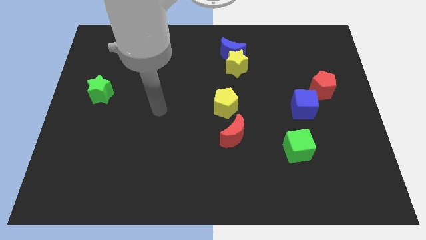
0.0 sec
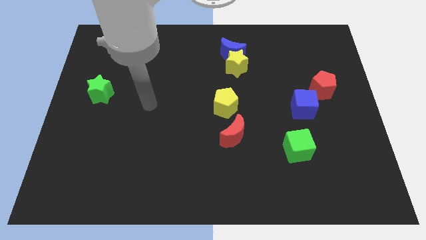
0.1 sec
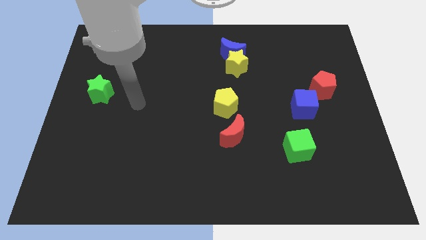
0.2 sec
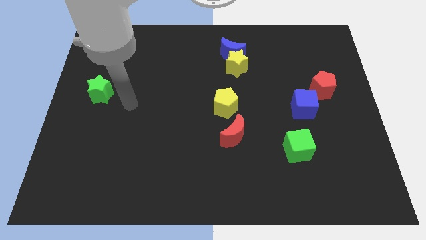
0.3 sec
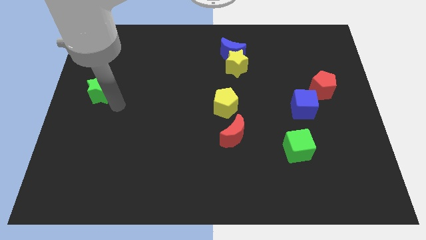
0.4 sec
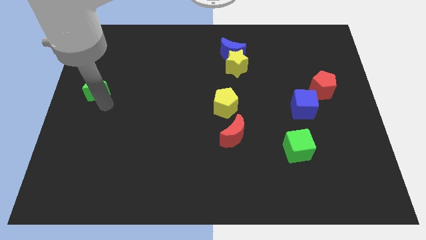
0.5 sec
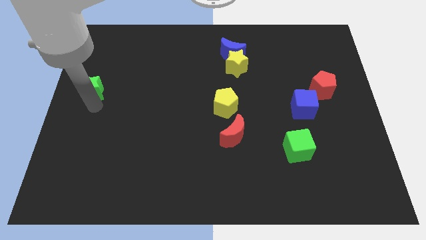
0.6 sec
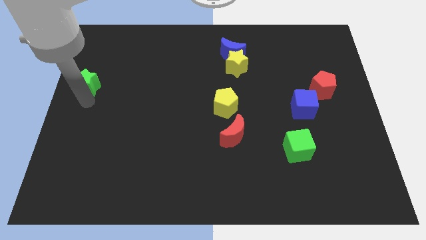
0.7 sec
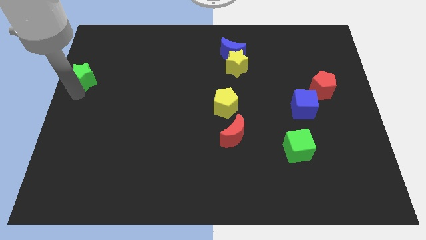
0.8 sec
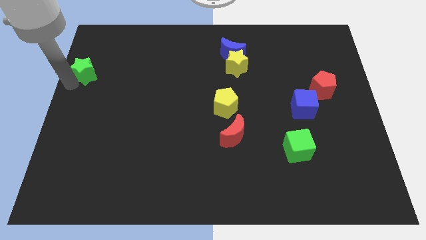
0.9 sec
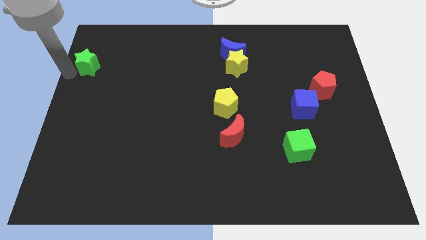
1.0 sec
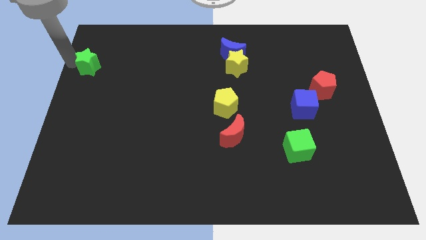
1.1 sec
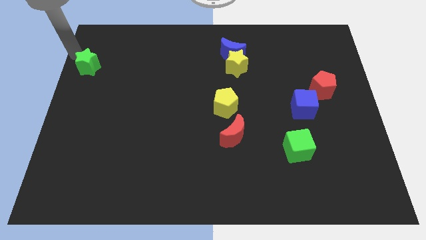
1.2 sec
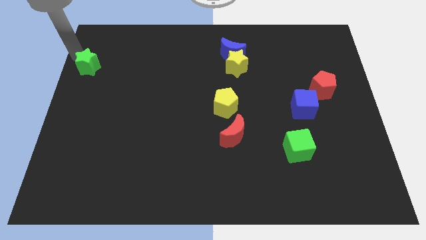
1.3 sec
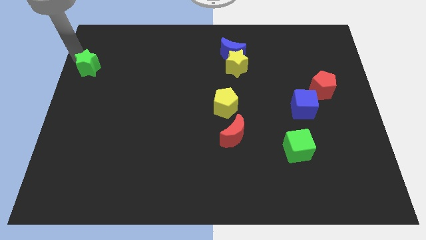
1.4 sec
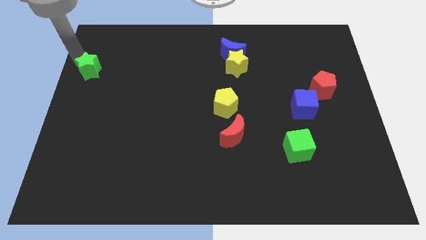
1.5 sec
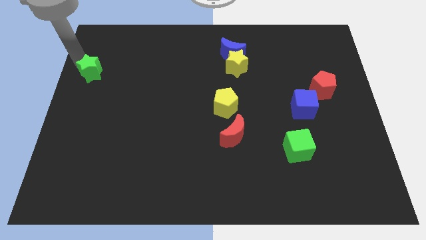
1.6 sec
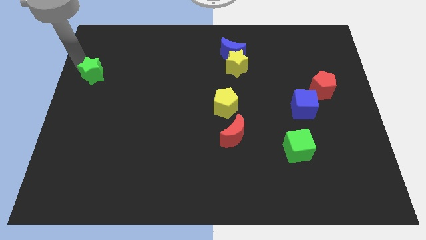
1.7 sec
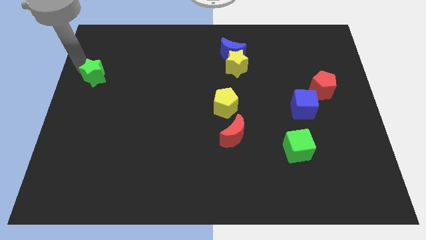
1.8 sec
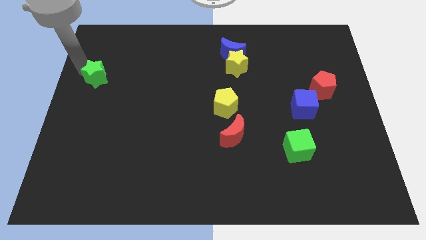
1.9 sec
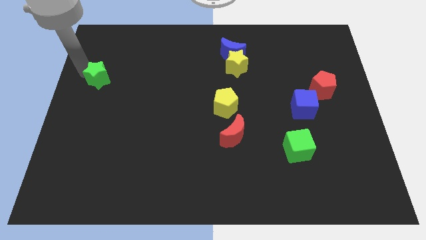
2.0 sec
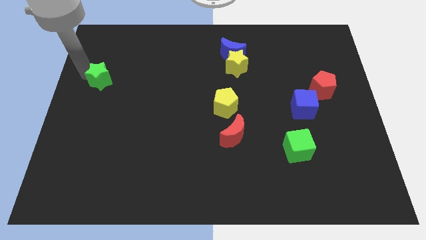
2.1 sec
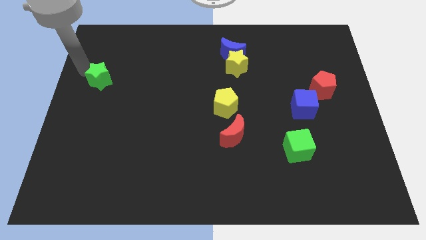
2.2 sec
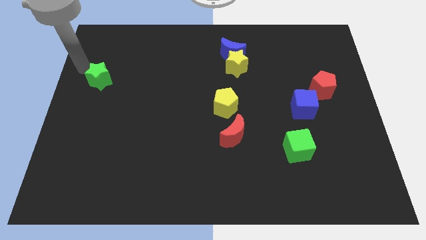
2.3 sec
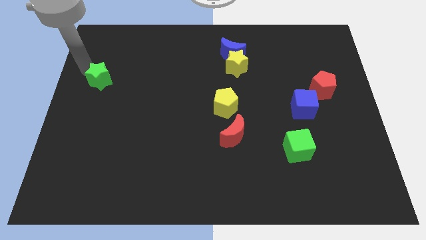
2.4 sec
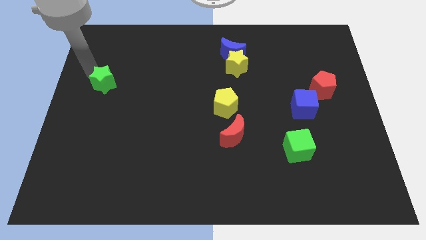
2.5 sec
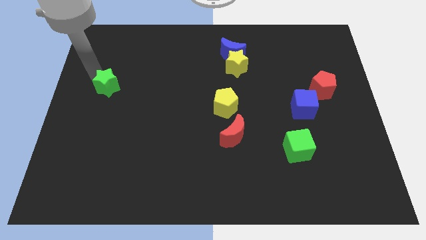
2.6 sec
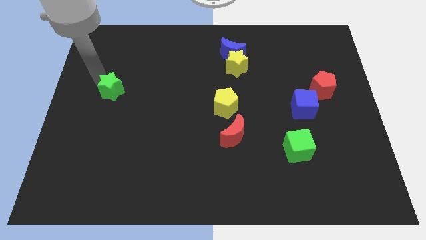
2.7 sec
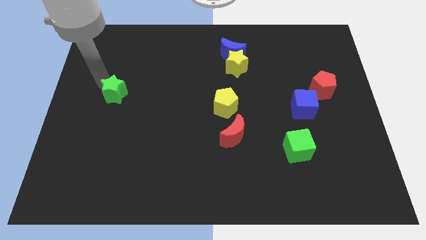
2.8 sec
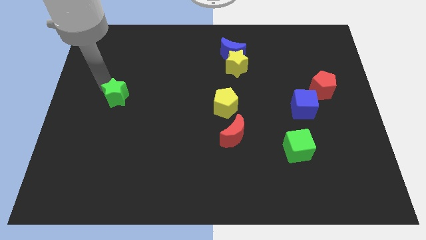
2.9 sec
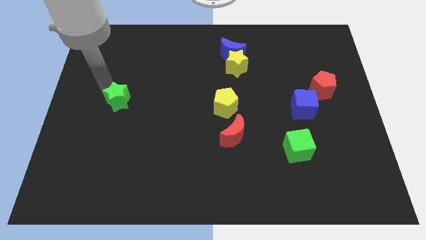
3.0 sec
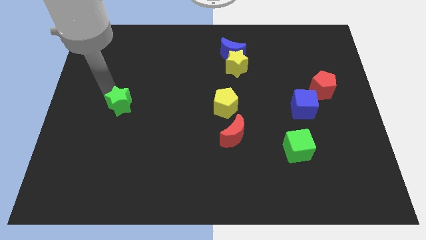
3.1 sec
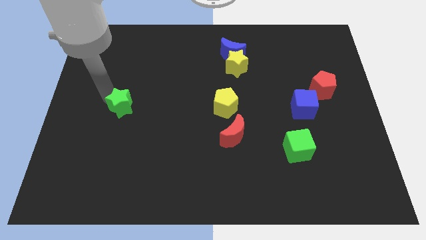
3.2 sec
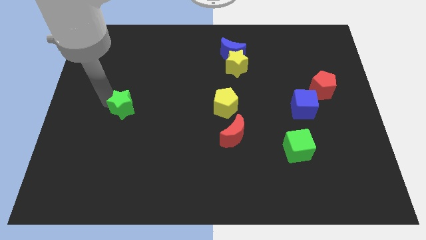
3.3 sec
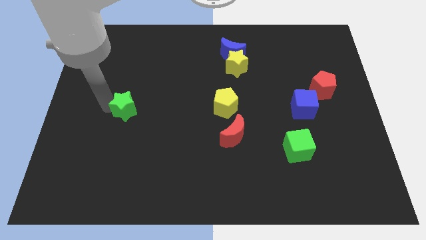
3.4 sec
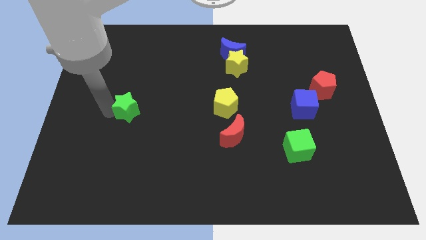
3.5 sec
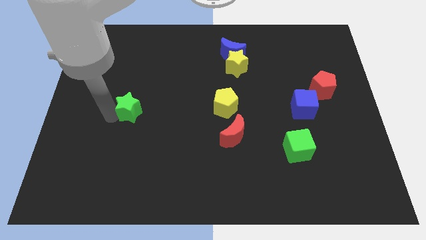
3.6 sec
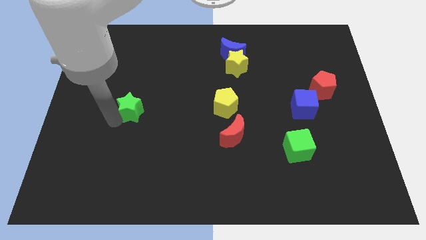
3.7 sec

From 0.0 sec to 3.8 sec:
push the green star a little bit right

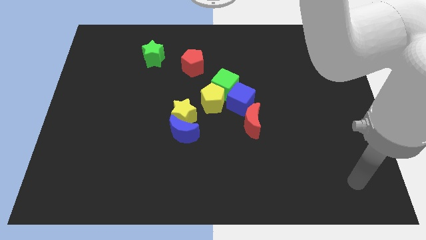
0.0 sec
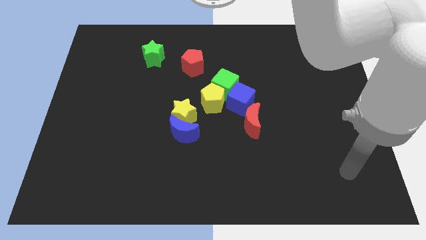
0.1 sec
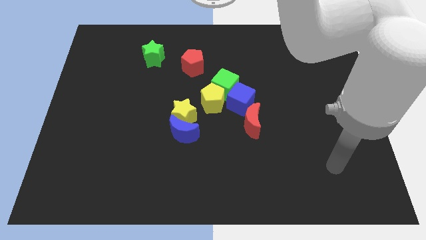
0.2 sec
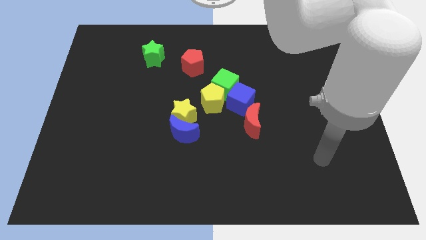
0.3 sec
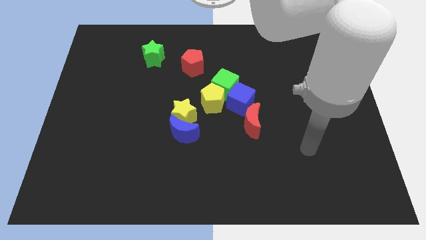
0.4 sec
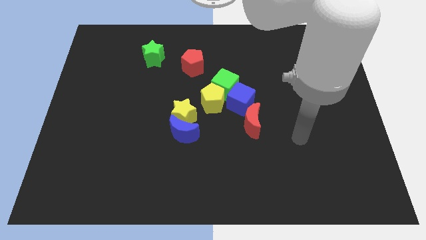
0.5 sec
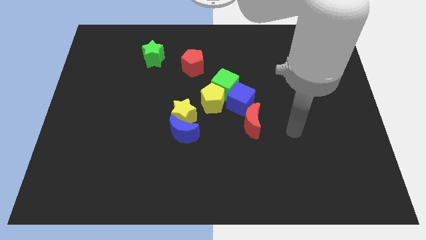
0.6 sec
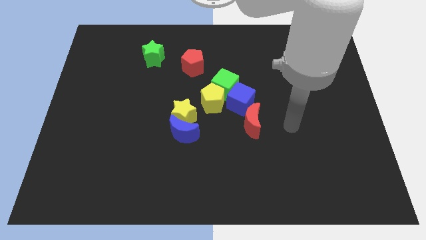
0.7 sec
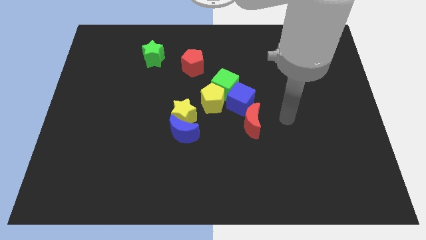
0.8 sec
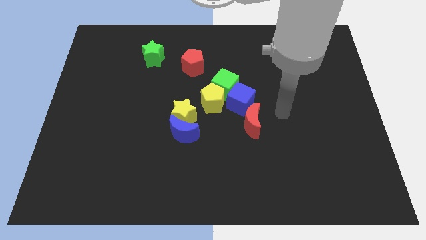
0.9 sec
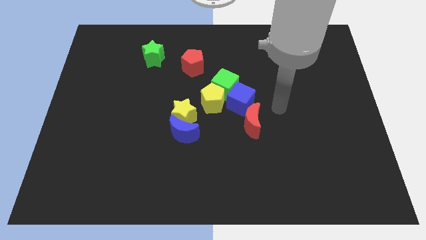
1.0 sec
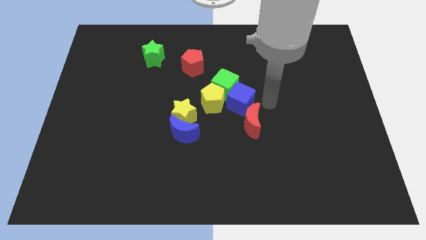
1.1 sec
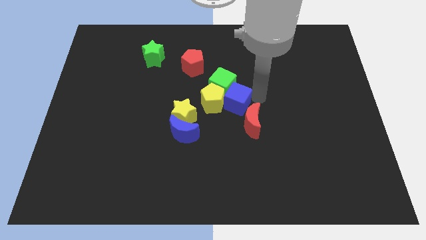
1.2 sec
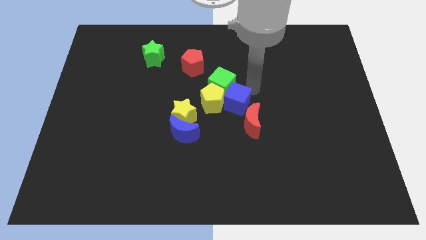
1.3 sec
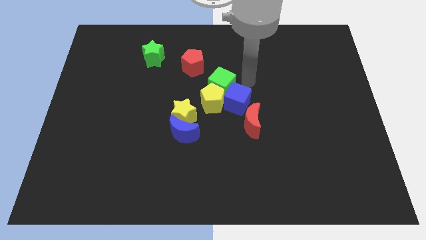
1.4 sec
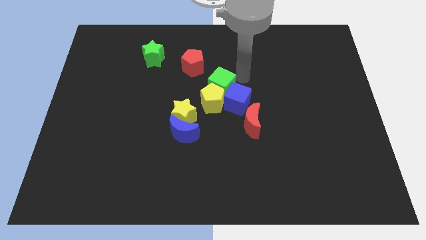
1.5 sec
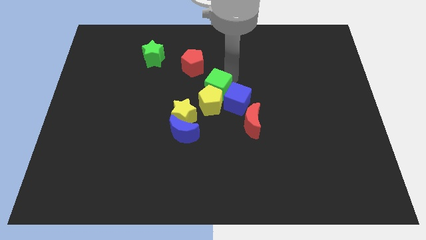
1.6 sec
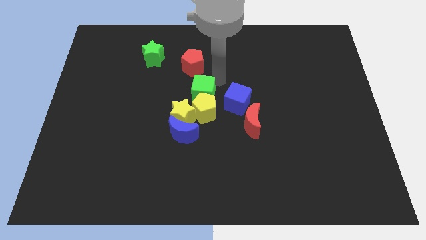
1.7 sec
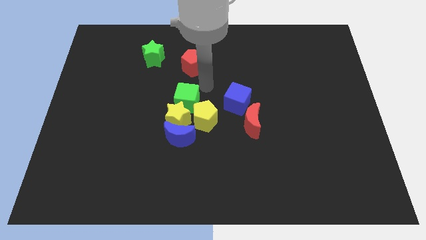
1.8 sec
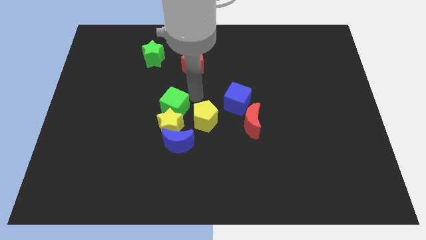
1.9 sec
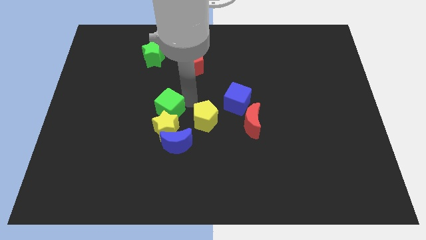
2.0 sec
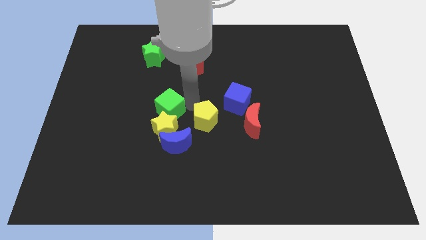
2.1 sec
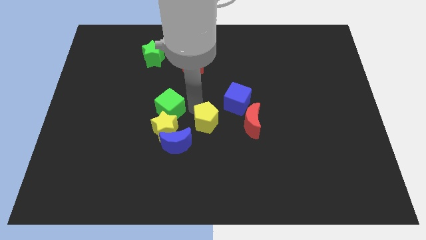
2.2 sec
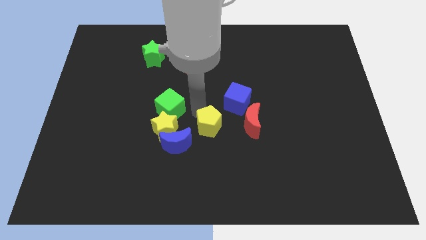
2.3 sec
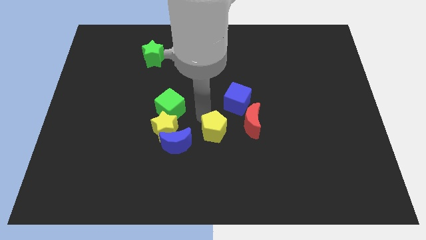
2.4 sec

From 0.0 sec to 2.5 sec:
slide the yellow pentagon slightly downwards

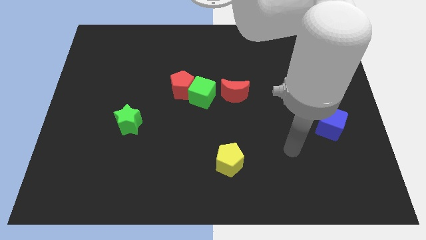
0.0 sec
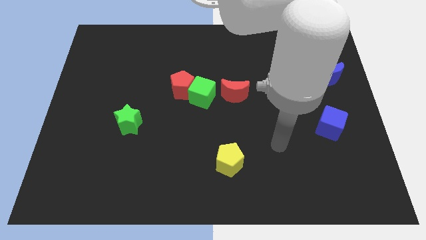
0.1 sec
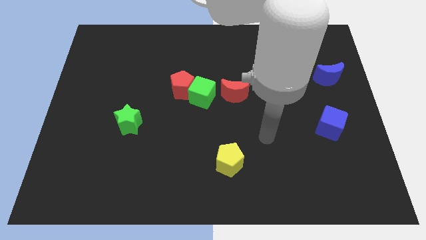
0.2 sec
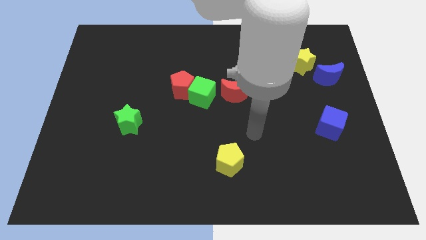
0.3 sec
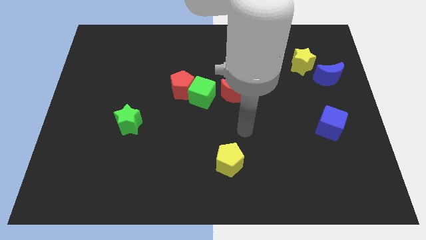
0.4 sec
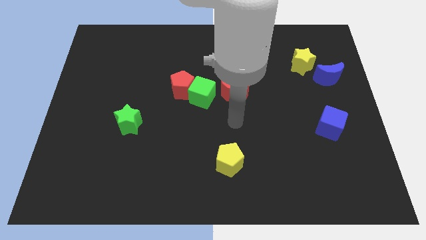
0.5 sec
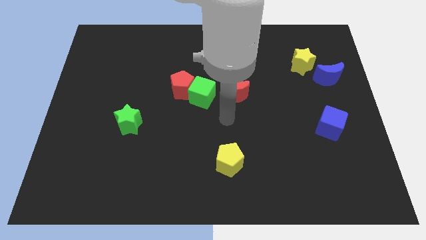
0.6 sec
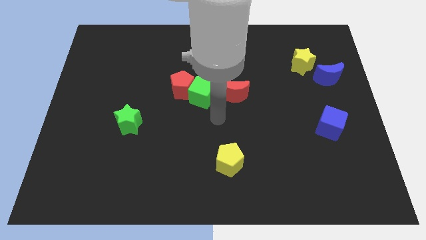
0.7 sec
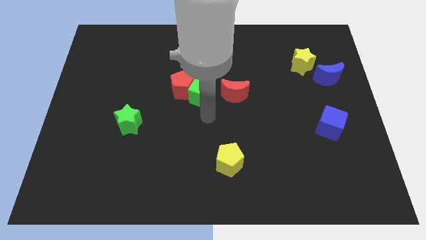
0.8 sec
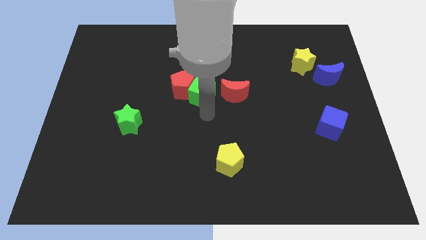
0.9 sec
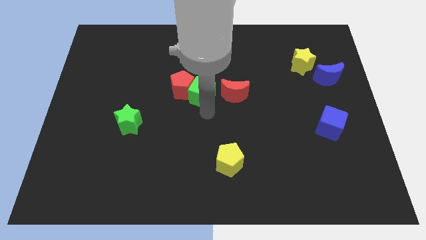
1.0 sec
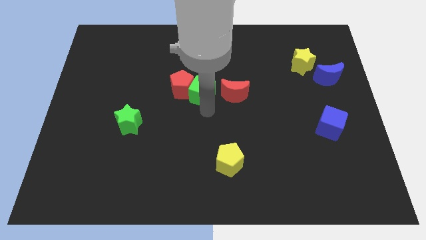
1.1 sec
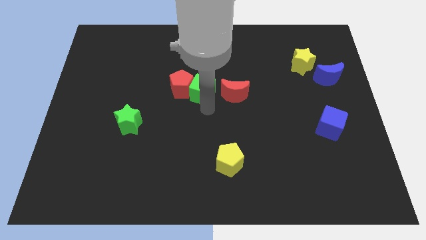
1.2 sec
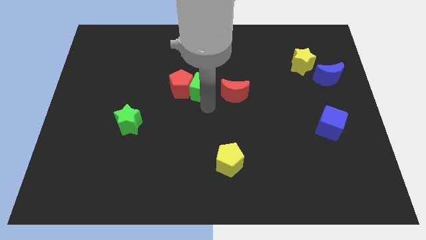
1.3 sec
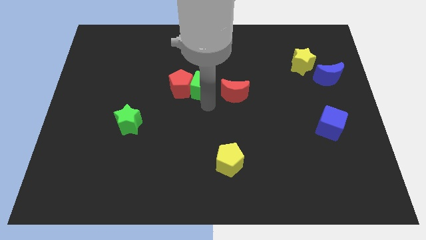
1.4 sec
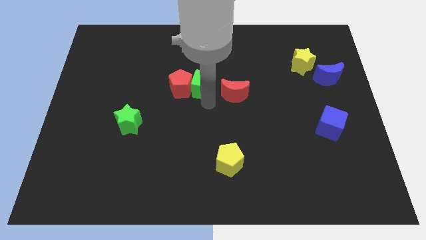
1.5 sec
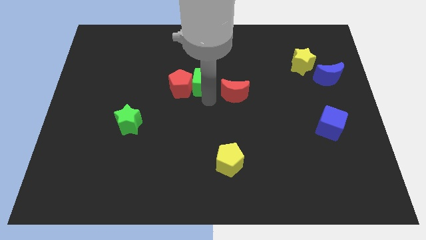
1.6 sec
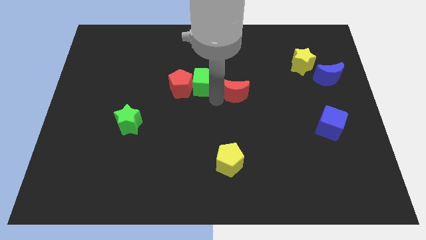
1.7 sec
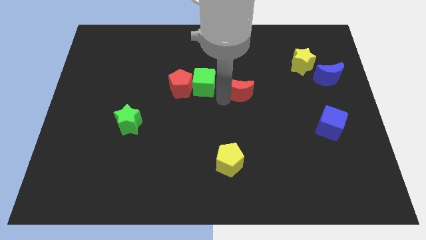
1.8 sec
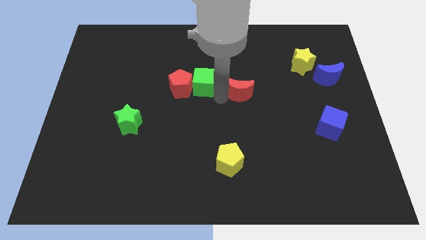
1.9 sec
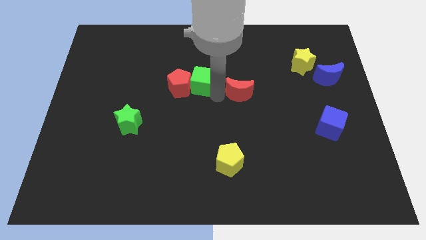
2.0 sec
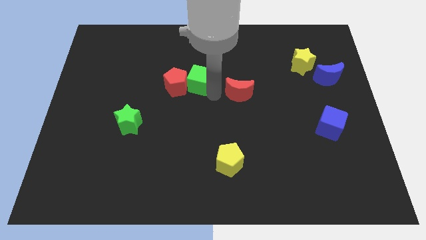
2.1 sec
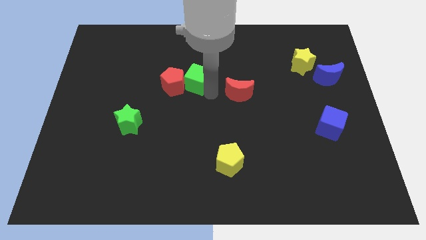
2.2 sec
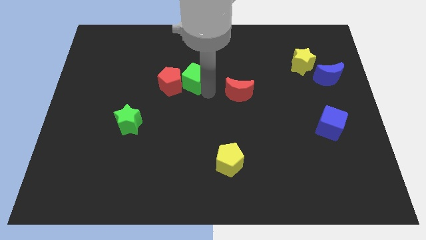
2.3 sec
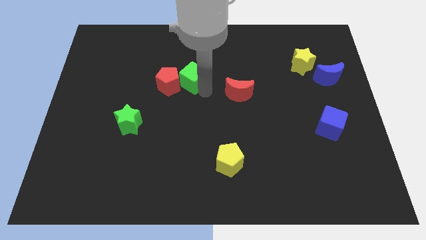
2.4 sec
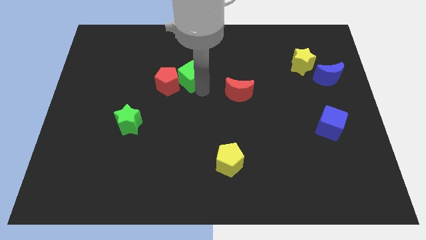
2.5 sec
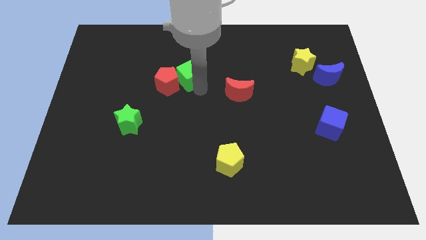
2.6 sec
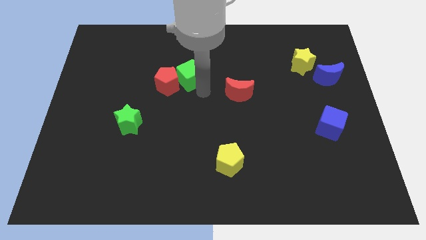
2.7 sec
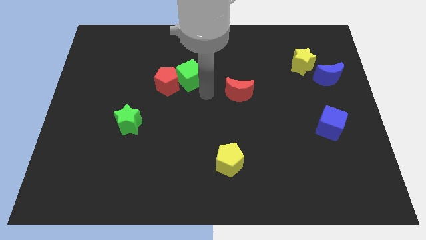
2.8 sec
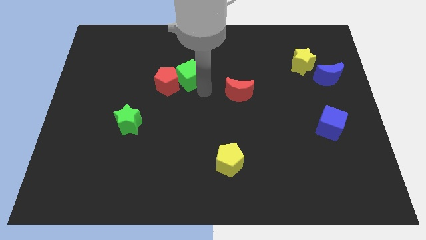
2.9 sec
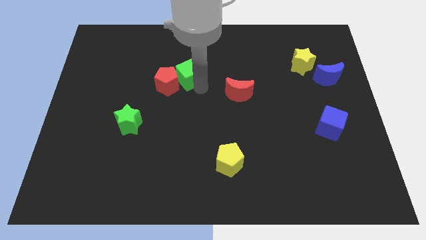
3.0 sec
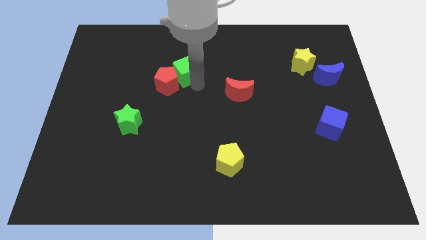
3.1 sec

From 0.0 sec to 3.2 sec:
slide the green cube upwards and then left a bit
